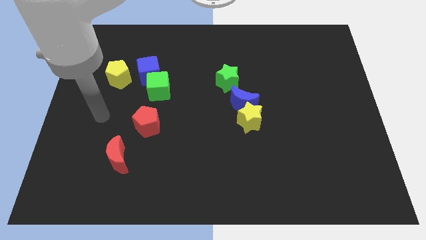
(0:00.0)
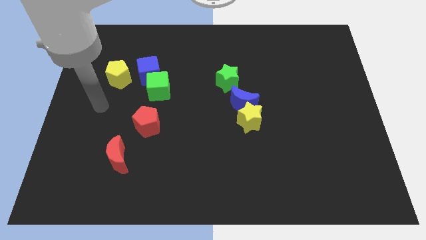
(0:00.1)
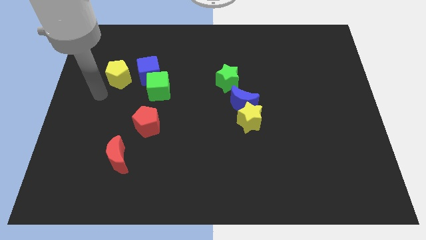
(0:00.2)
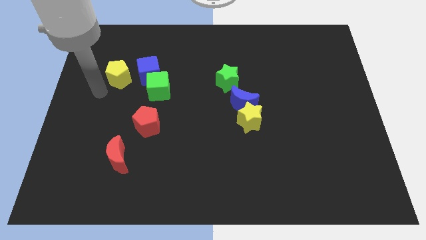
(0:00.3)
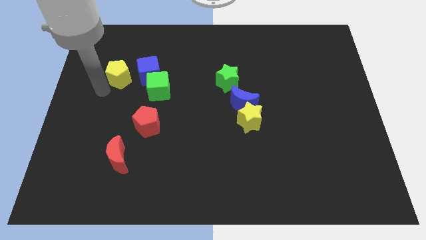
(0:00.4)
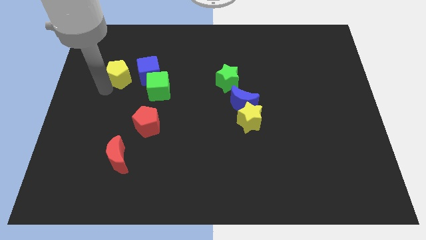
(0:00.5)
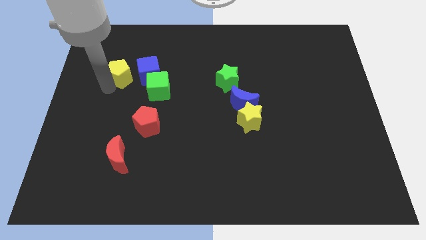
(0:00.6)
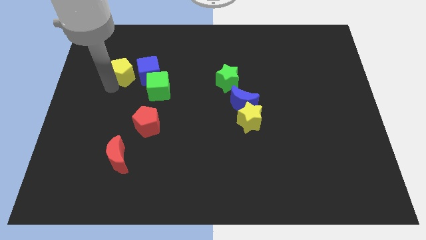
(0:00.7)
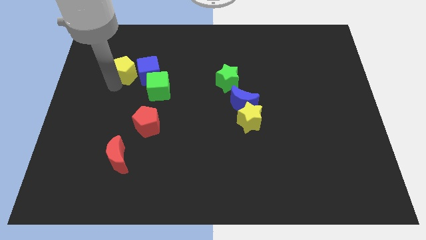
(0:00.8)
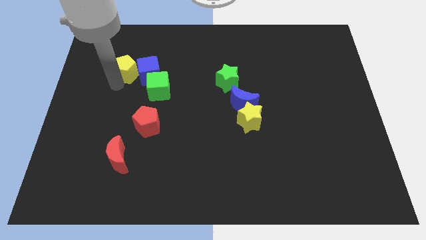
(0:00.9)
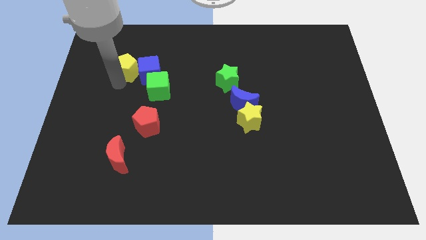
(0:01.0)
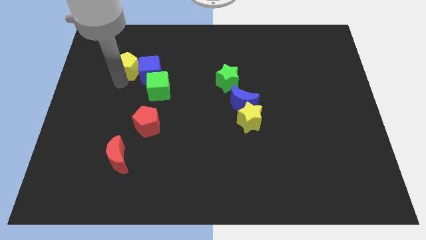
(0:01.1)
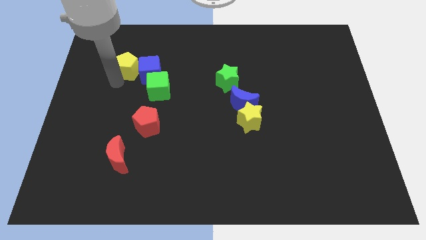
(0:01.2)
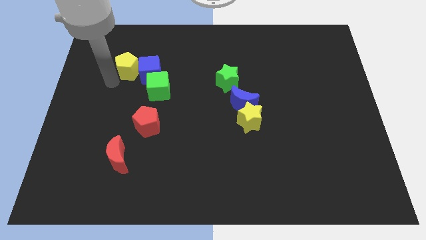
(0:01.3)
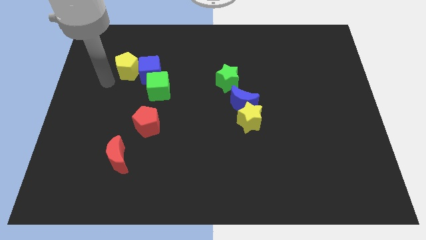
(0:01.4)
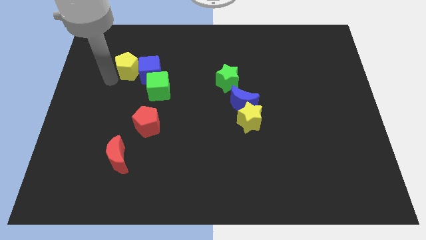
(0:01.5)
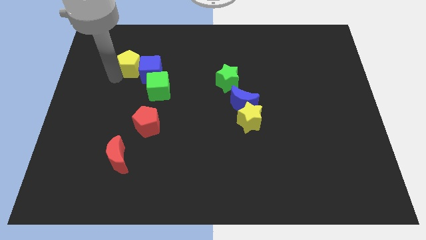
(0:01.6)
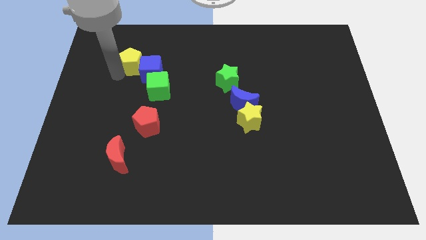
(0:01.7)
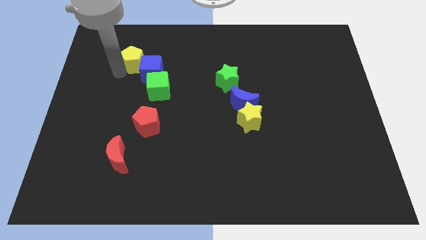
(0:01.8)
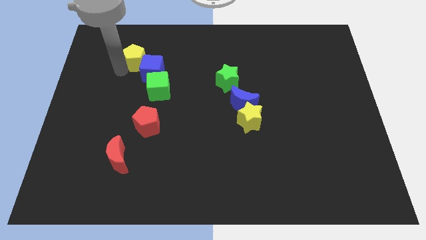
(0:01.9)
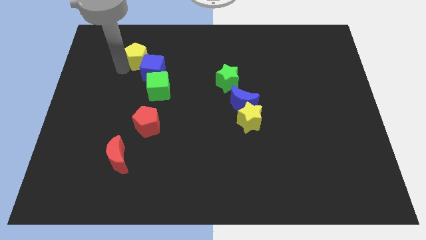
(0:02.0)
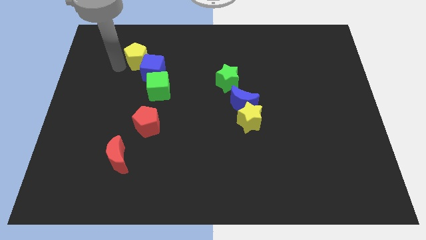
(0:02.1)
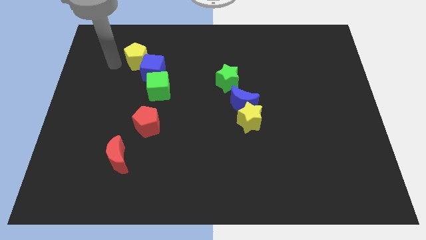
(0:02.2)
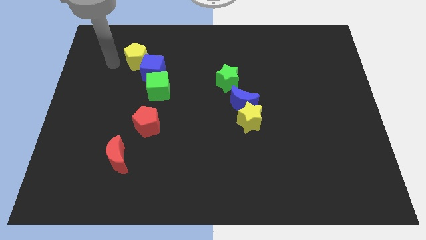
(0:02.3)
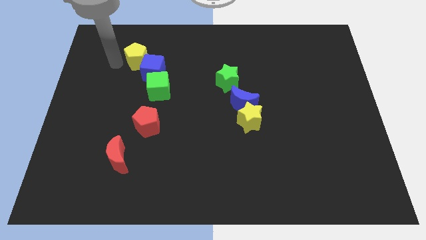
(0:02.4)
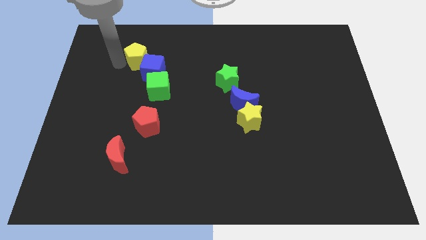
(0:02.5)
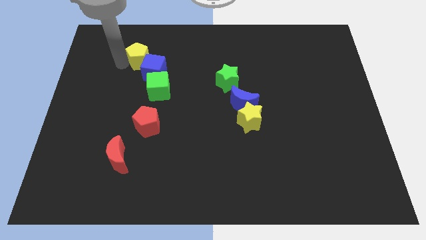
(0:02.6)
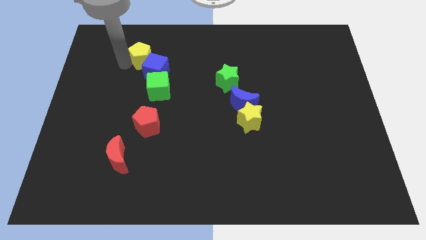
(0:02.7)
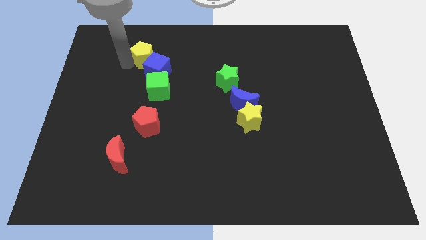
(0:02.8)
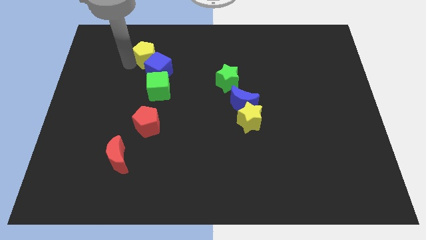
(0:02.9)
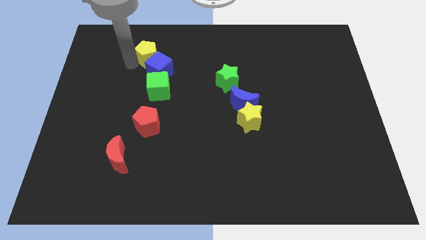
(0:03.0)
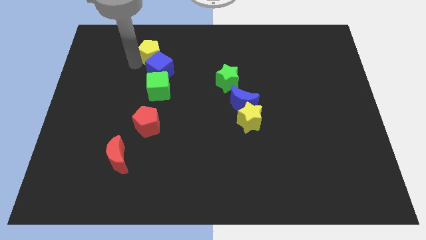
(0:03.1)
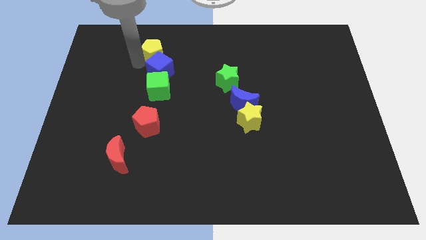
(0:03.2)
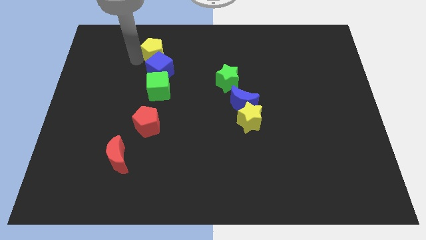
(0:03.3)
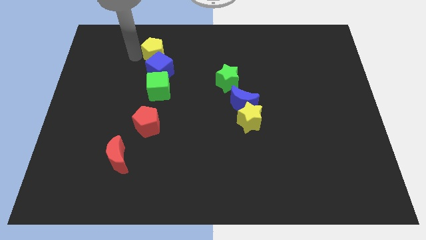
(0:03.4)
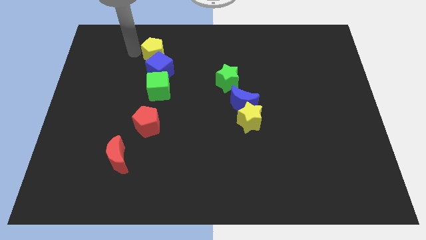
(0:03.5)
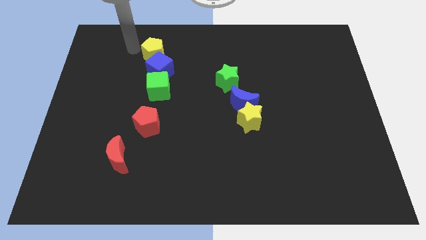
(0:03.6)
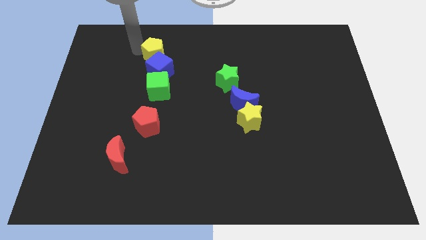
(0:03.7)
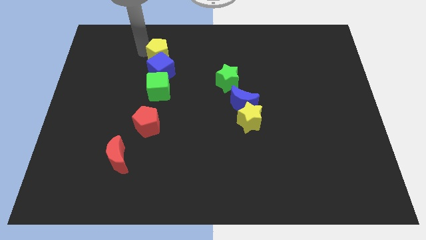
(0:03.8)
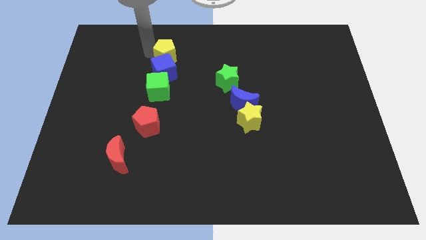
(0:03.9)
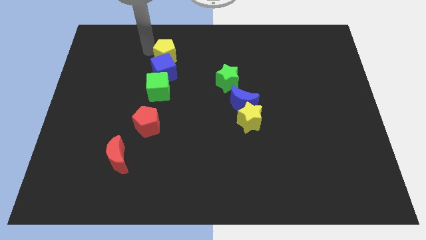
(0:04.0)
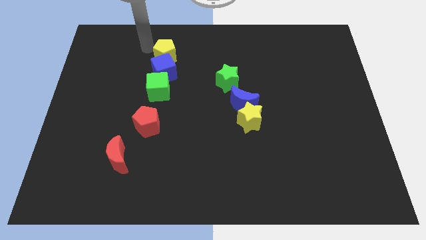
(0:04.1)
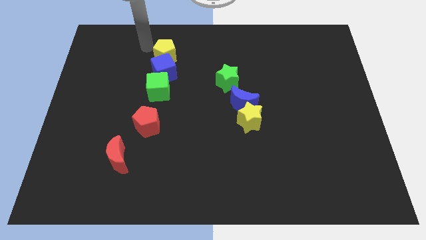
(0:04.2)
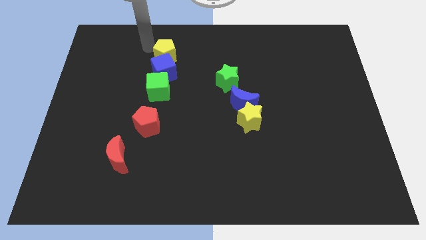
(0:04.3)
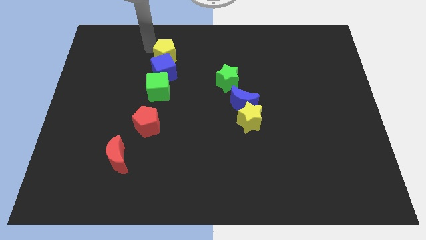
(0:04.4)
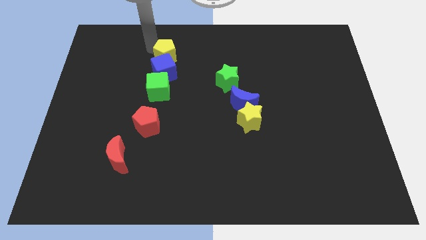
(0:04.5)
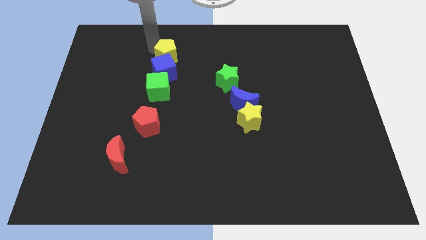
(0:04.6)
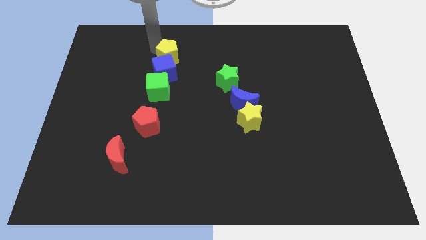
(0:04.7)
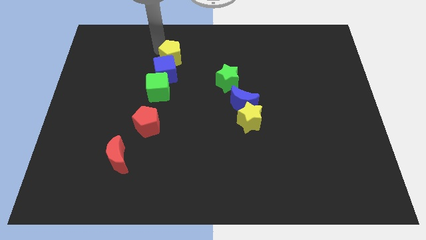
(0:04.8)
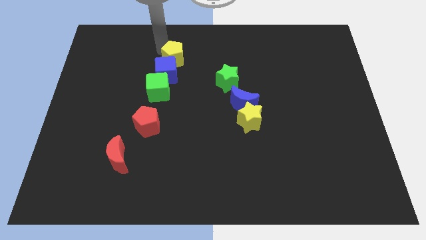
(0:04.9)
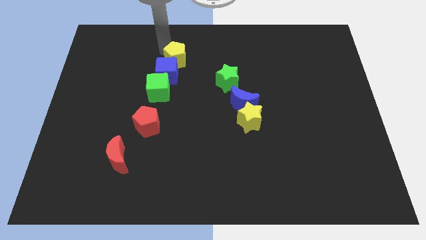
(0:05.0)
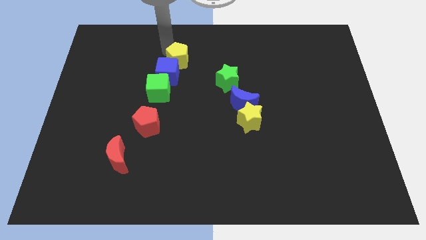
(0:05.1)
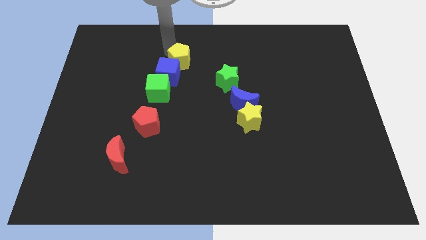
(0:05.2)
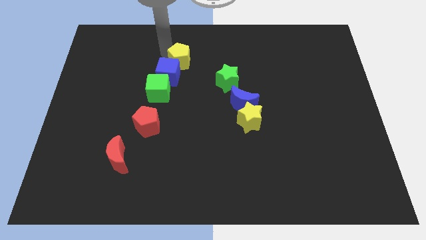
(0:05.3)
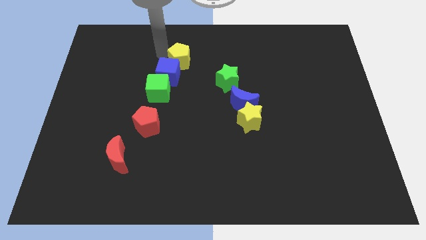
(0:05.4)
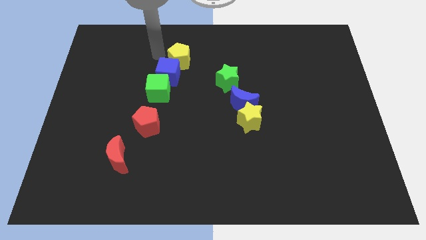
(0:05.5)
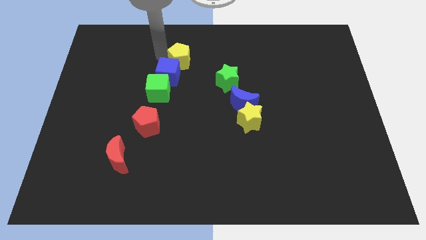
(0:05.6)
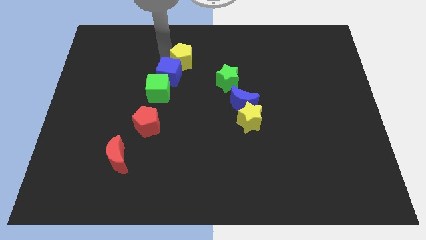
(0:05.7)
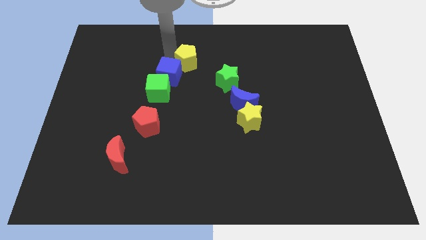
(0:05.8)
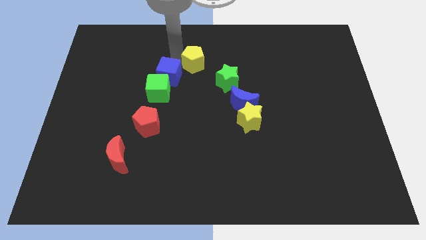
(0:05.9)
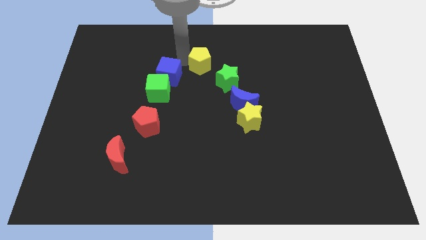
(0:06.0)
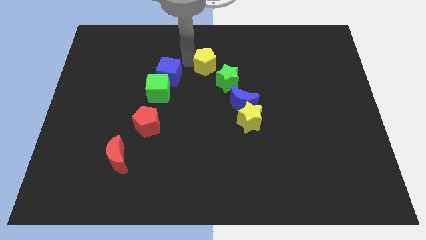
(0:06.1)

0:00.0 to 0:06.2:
move the yellow pentagon to the right

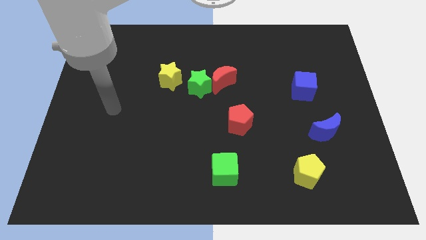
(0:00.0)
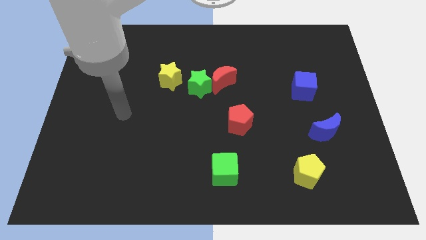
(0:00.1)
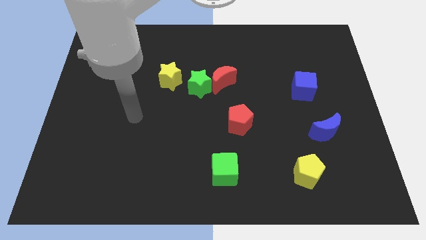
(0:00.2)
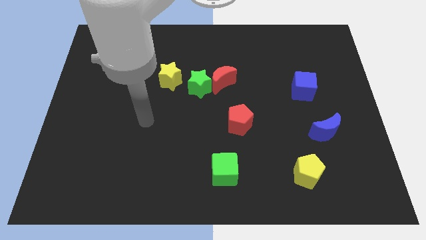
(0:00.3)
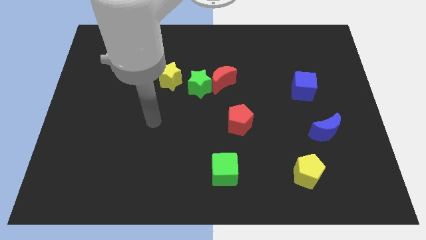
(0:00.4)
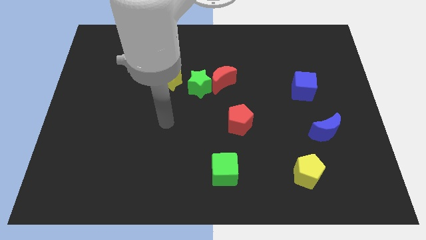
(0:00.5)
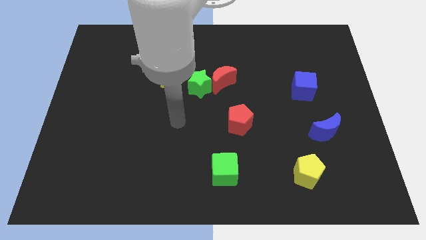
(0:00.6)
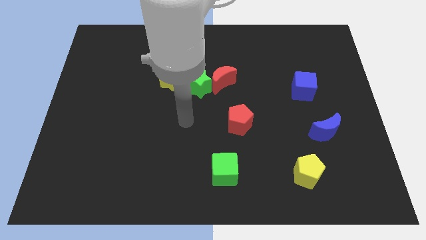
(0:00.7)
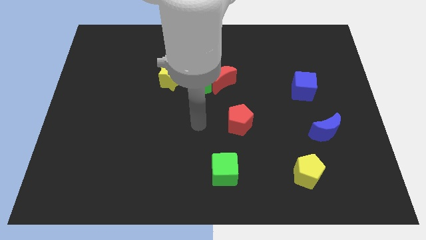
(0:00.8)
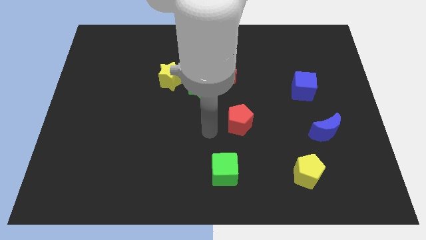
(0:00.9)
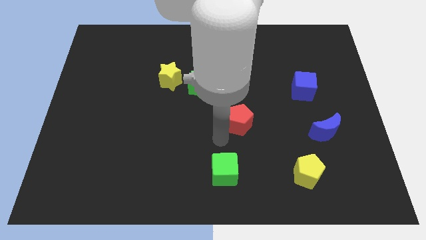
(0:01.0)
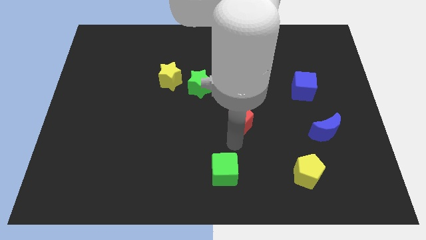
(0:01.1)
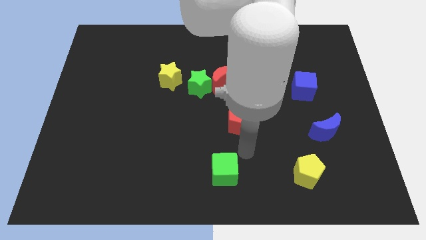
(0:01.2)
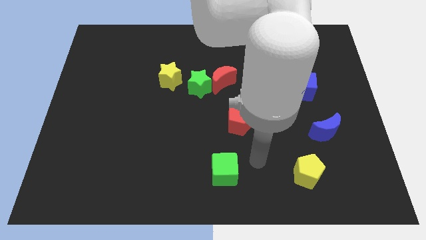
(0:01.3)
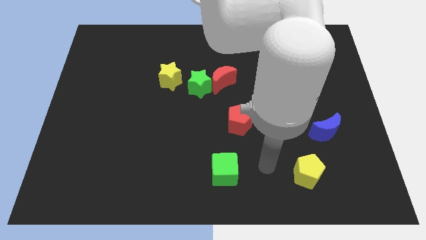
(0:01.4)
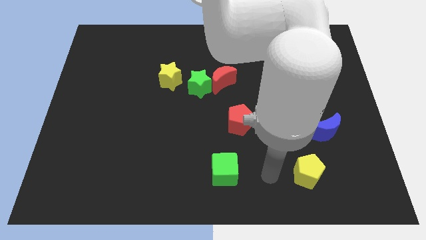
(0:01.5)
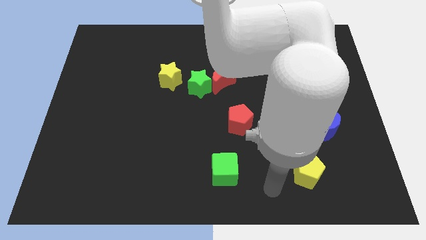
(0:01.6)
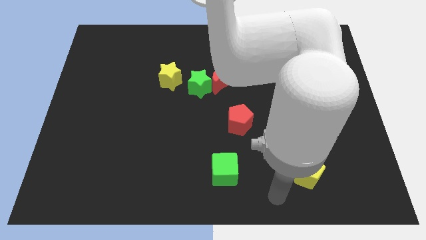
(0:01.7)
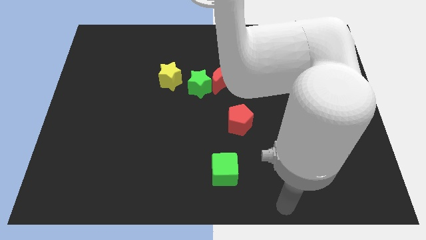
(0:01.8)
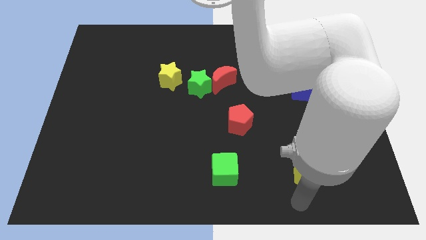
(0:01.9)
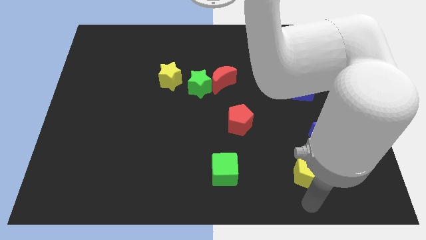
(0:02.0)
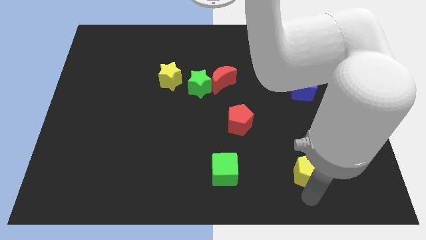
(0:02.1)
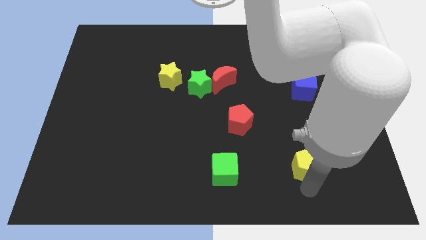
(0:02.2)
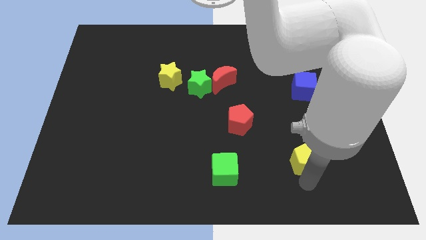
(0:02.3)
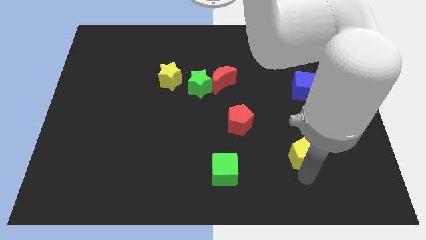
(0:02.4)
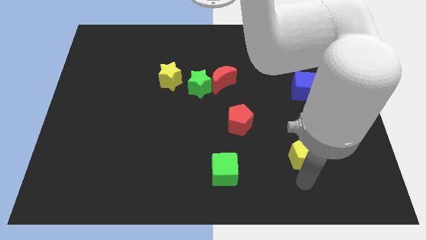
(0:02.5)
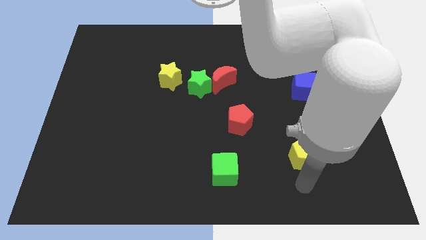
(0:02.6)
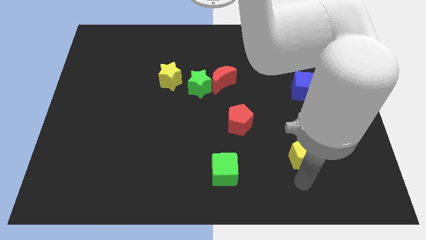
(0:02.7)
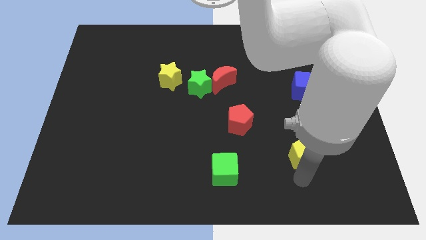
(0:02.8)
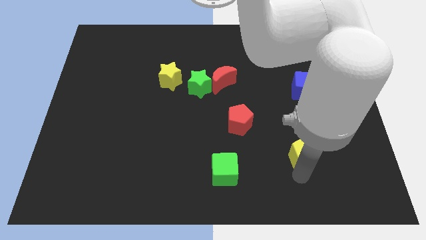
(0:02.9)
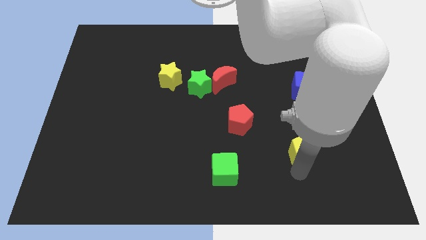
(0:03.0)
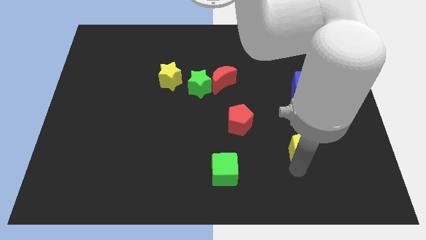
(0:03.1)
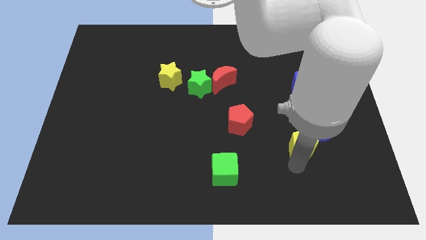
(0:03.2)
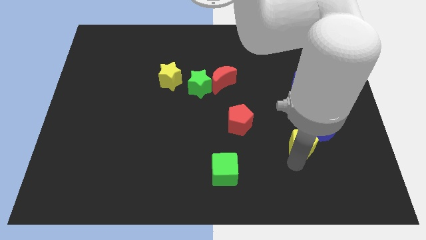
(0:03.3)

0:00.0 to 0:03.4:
push the yellow pentagon up a bit
